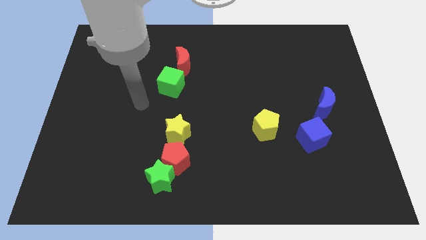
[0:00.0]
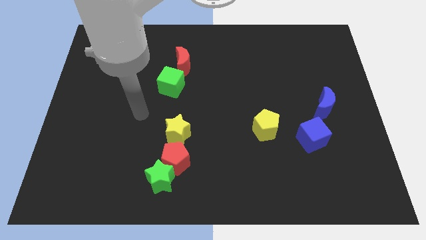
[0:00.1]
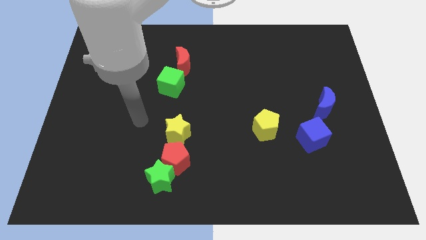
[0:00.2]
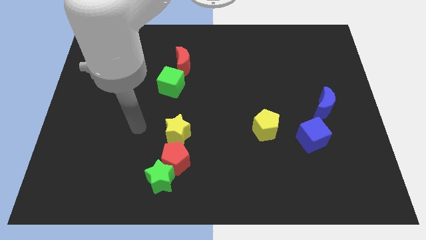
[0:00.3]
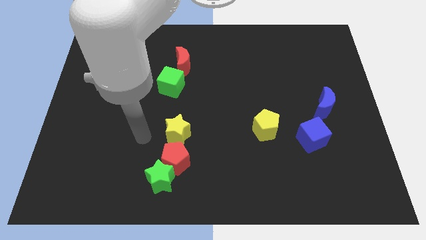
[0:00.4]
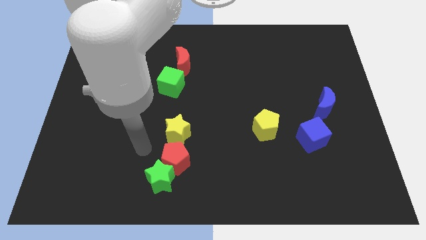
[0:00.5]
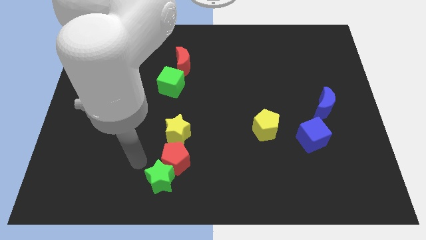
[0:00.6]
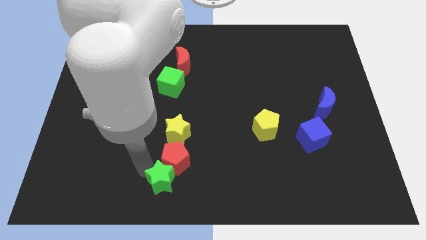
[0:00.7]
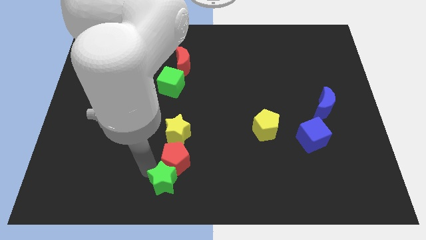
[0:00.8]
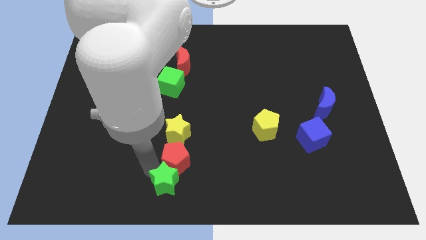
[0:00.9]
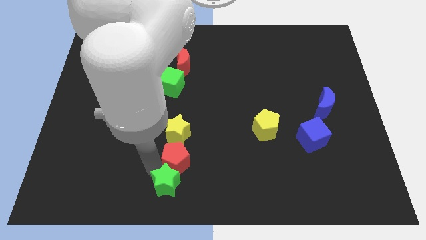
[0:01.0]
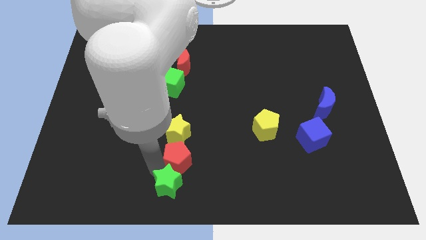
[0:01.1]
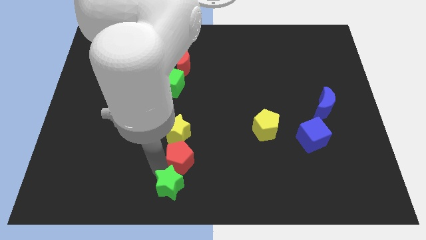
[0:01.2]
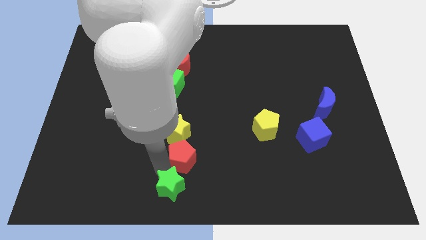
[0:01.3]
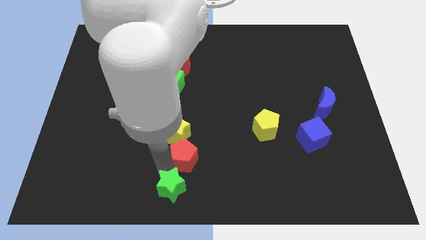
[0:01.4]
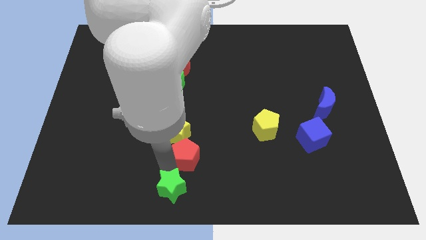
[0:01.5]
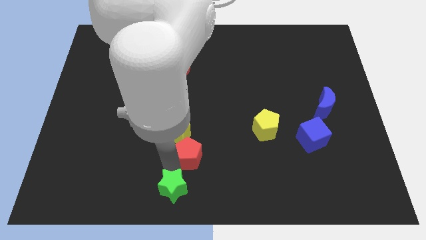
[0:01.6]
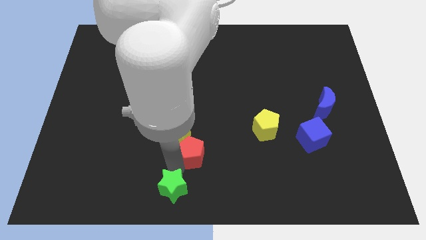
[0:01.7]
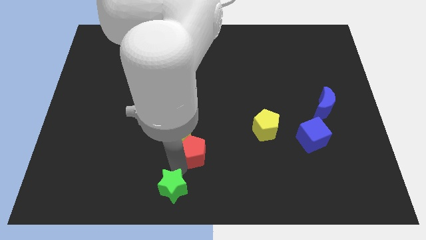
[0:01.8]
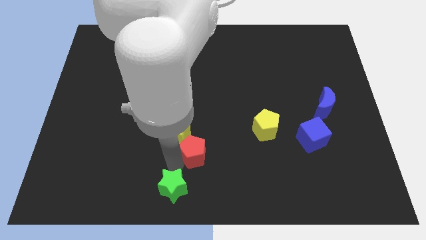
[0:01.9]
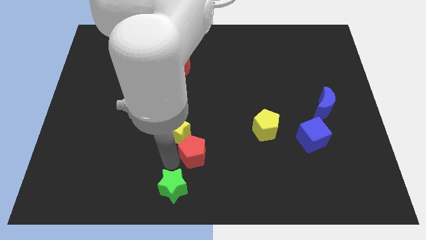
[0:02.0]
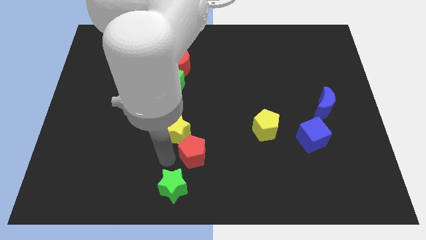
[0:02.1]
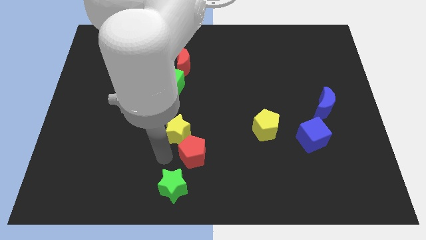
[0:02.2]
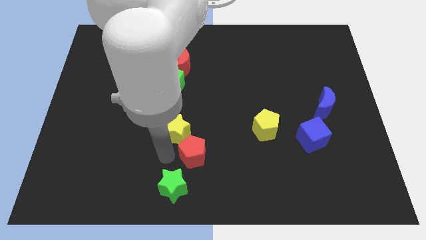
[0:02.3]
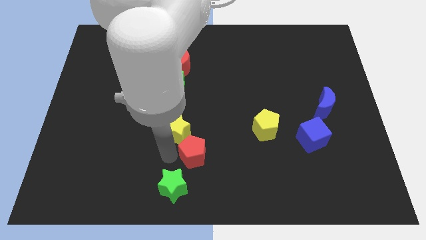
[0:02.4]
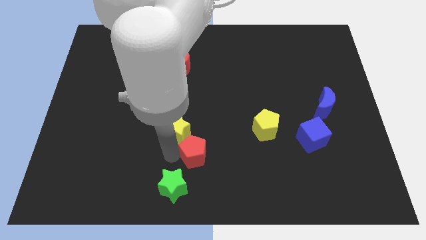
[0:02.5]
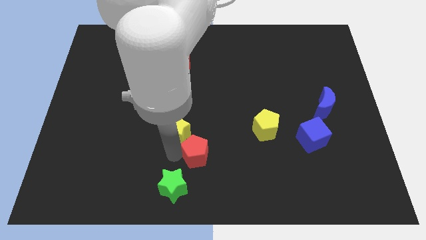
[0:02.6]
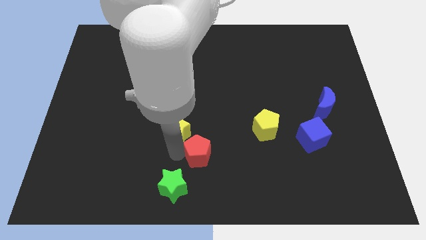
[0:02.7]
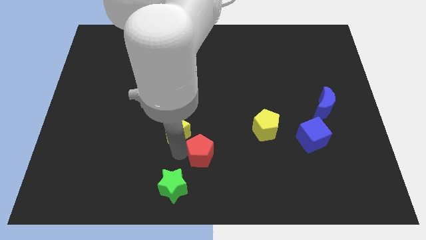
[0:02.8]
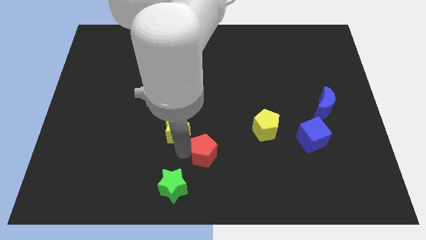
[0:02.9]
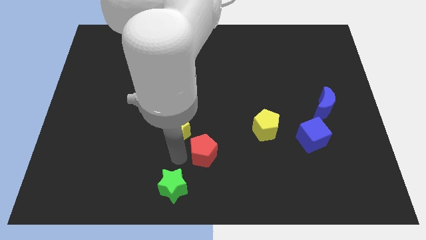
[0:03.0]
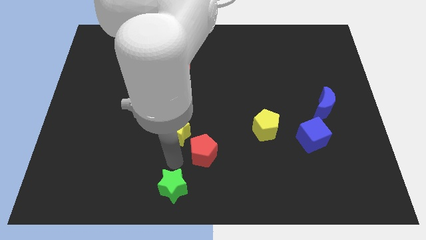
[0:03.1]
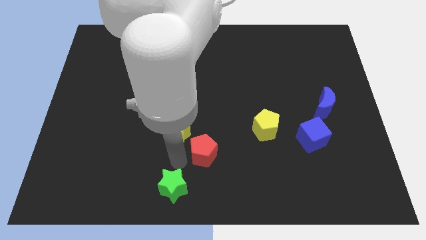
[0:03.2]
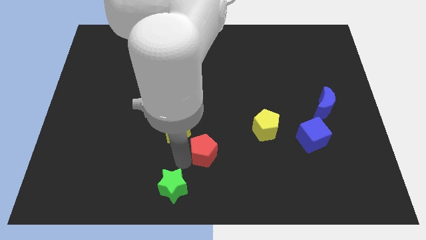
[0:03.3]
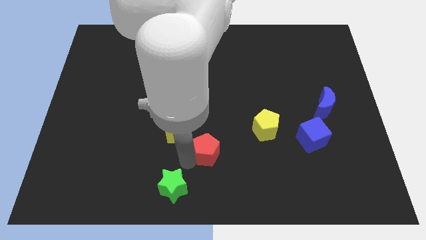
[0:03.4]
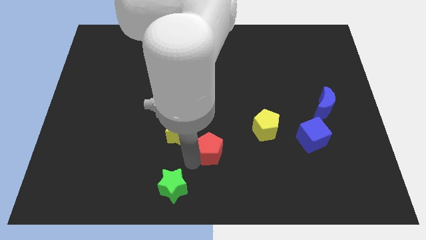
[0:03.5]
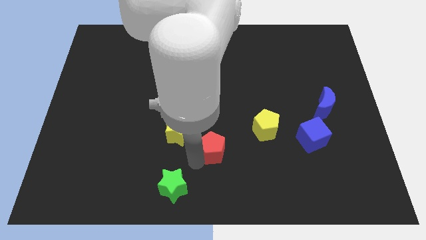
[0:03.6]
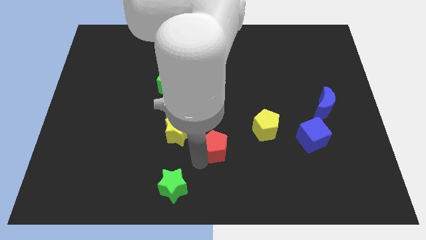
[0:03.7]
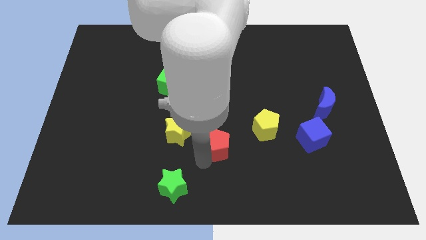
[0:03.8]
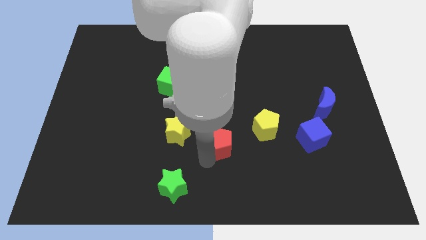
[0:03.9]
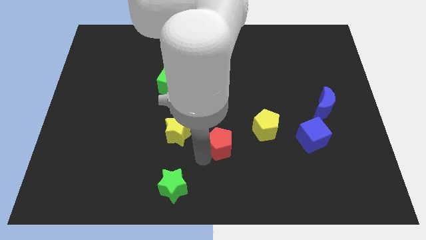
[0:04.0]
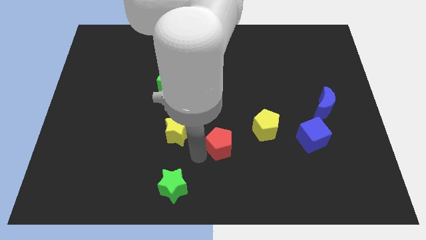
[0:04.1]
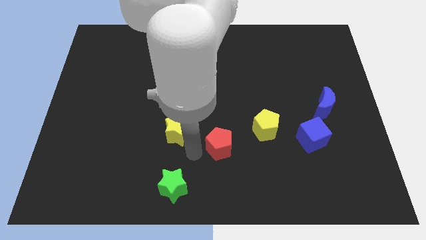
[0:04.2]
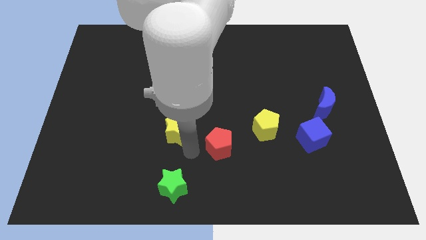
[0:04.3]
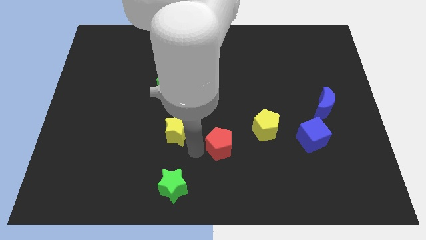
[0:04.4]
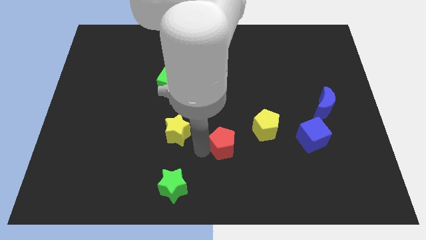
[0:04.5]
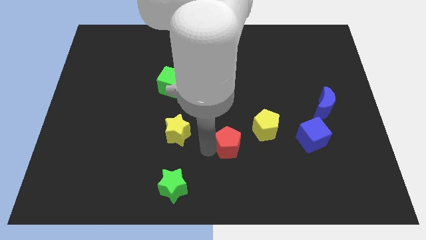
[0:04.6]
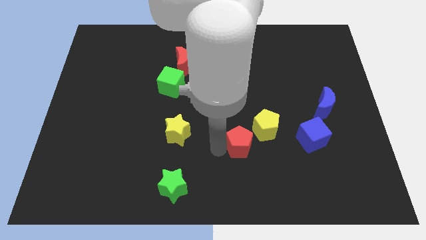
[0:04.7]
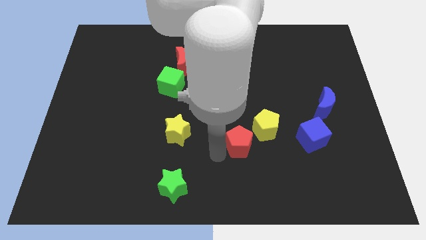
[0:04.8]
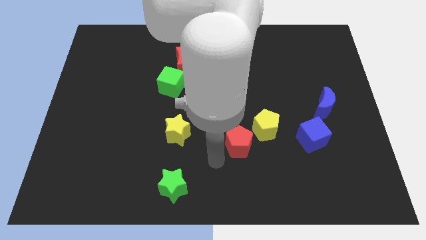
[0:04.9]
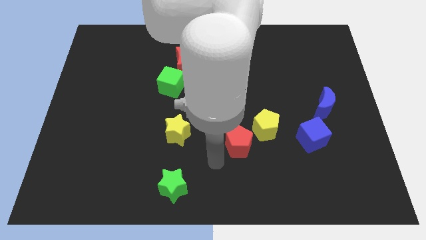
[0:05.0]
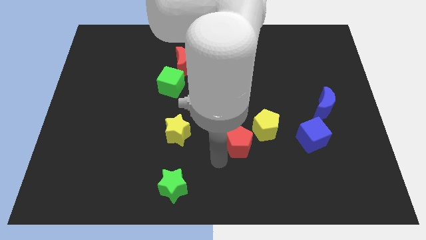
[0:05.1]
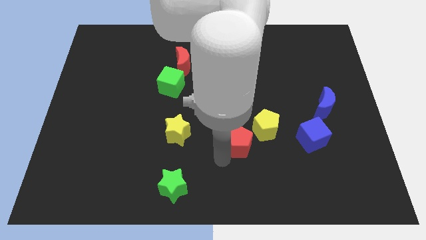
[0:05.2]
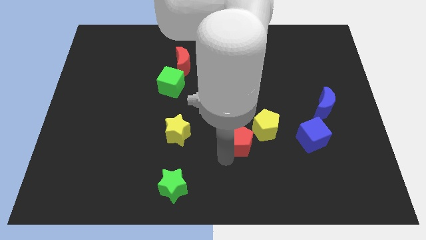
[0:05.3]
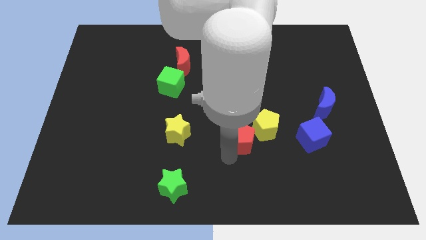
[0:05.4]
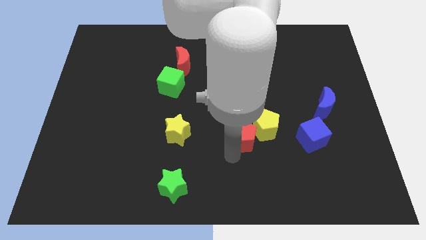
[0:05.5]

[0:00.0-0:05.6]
put the red pentagon towards the yellow pentagon

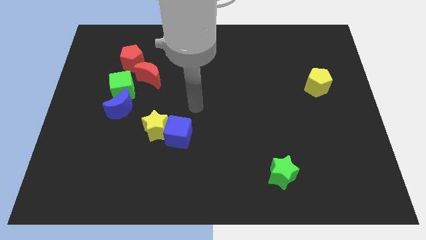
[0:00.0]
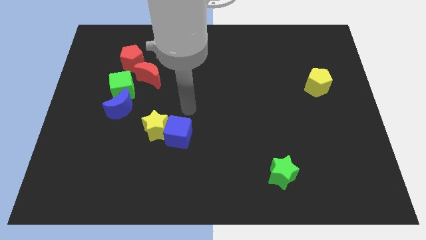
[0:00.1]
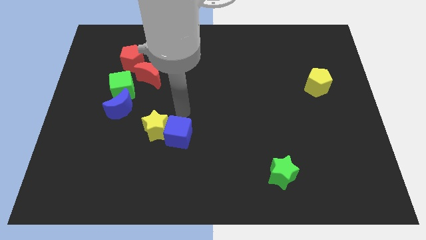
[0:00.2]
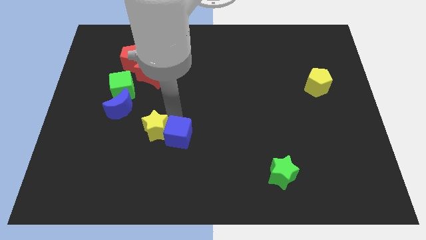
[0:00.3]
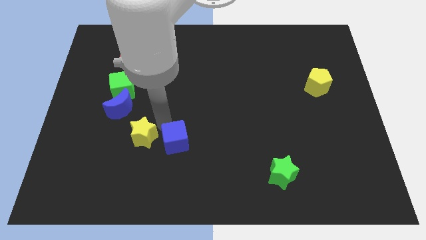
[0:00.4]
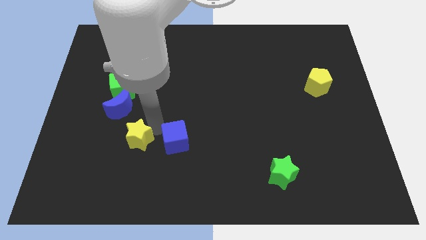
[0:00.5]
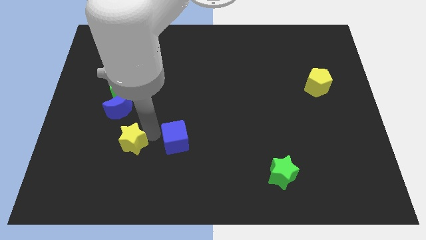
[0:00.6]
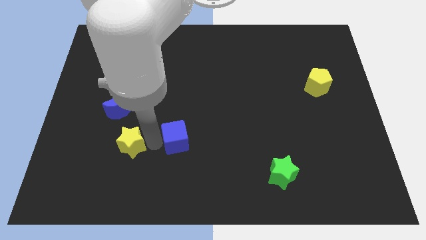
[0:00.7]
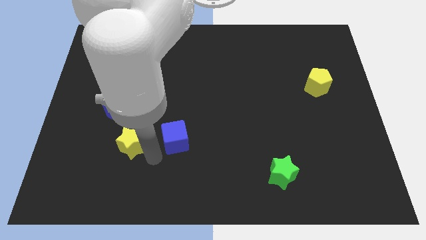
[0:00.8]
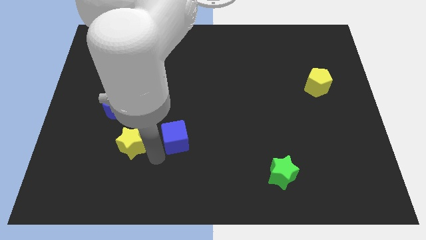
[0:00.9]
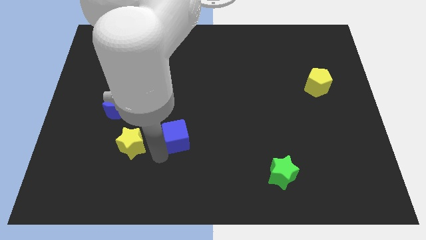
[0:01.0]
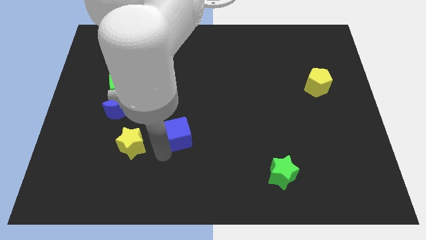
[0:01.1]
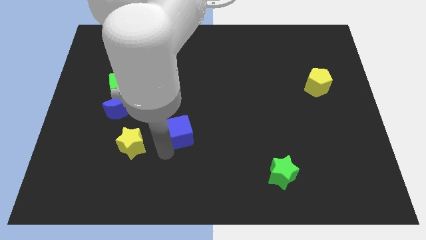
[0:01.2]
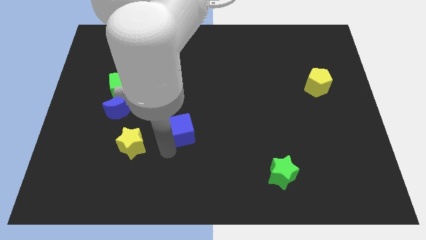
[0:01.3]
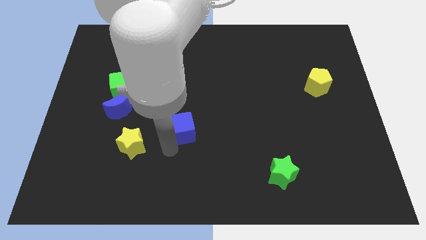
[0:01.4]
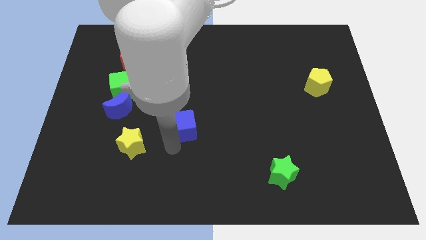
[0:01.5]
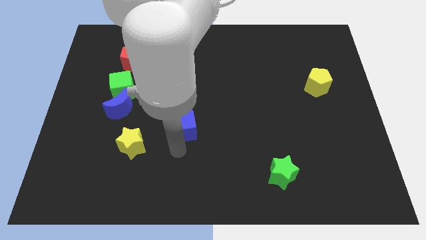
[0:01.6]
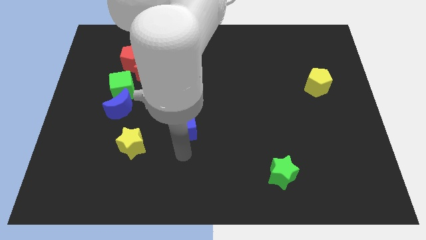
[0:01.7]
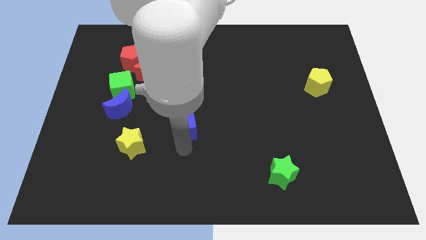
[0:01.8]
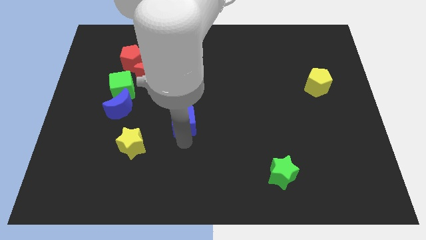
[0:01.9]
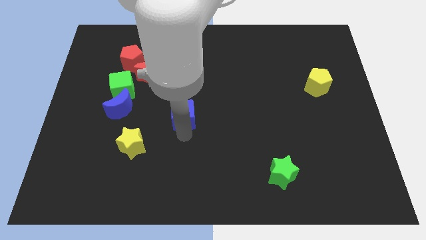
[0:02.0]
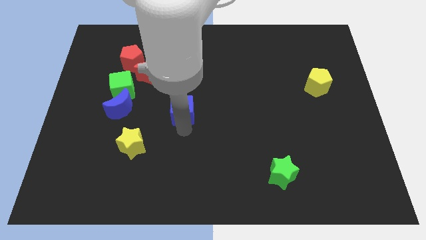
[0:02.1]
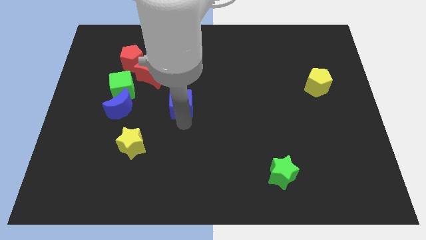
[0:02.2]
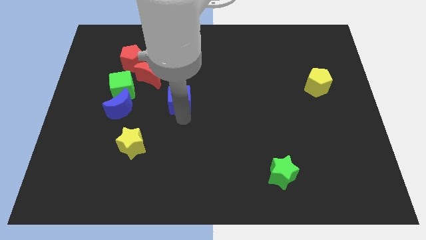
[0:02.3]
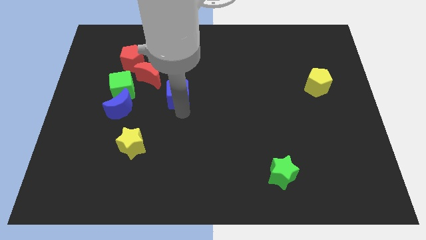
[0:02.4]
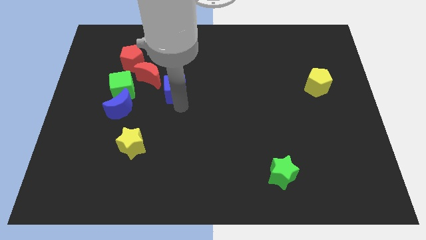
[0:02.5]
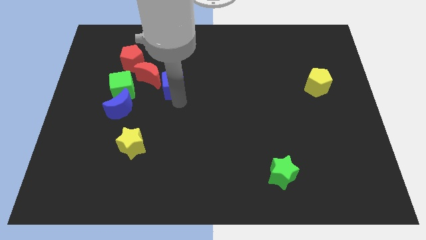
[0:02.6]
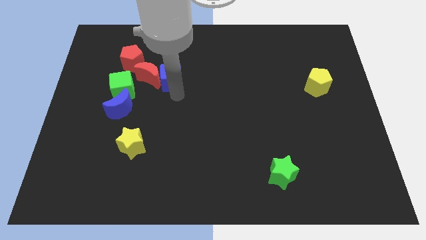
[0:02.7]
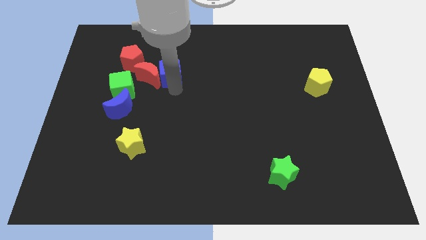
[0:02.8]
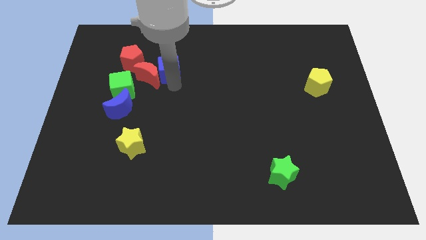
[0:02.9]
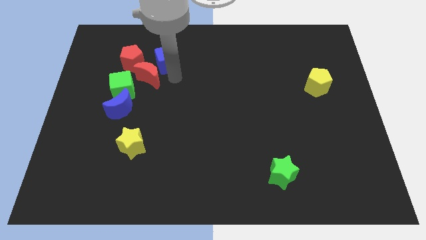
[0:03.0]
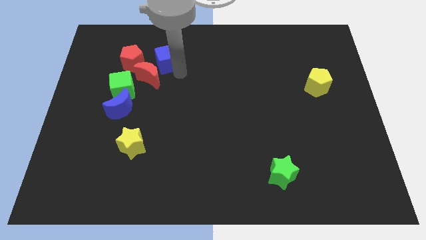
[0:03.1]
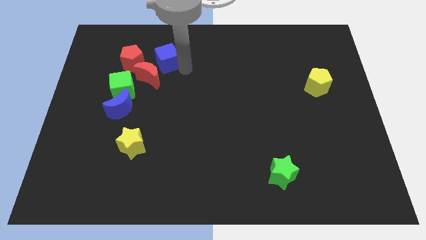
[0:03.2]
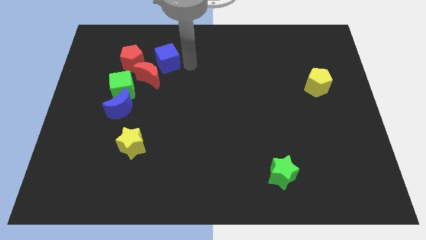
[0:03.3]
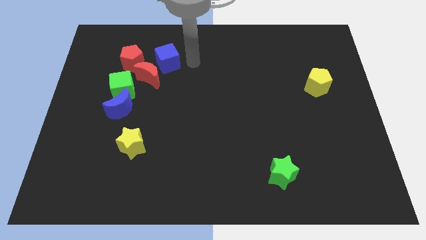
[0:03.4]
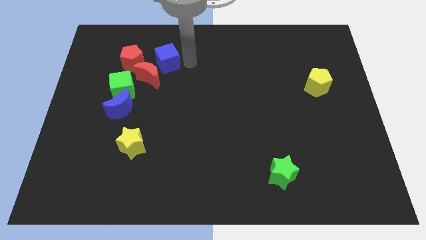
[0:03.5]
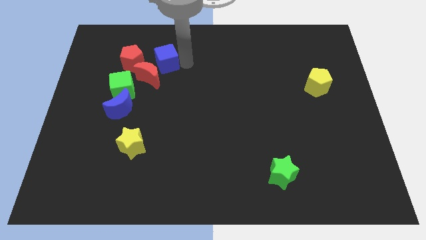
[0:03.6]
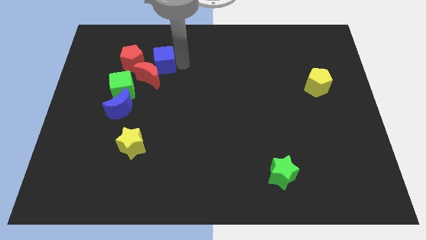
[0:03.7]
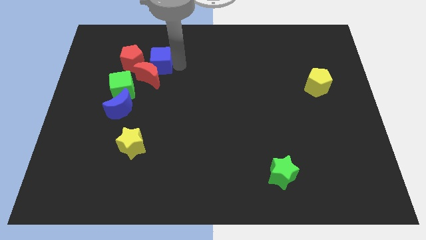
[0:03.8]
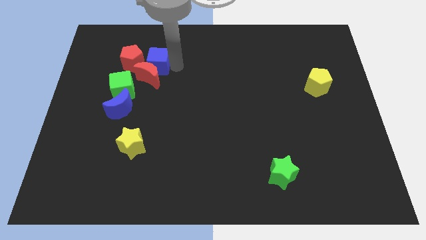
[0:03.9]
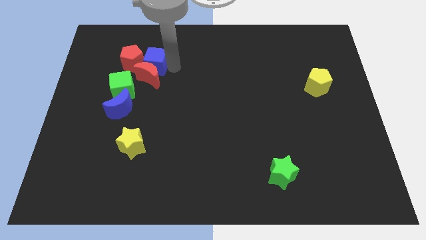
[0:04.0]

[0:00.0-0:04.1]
move the blue cube close to the red pentagon
